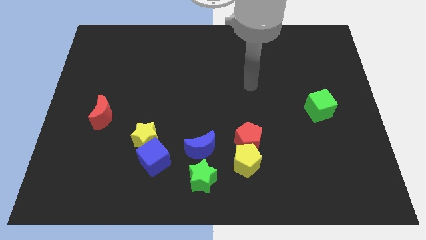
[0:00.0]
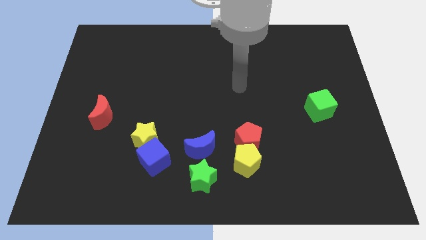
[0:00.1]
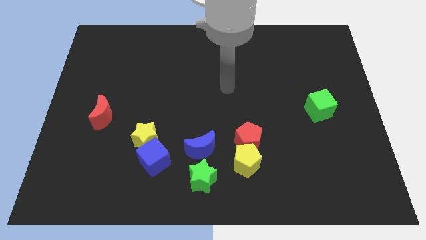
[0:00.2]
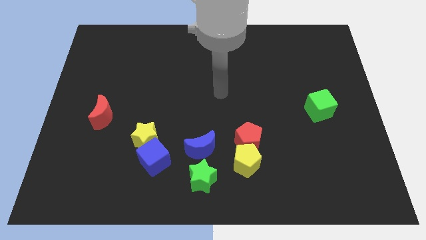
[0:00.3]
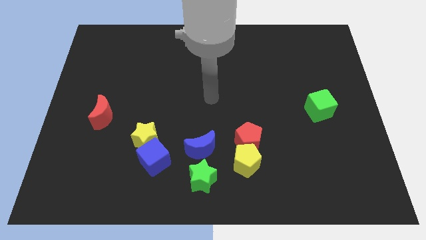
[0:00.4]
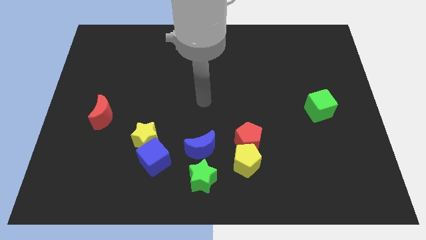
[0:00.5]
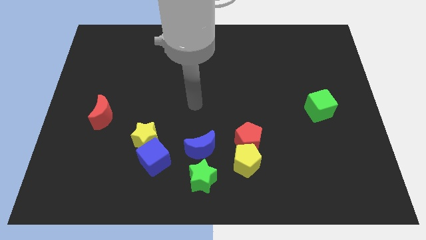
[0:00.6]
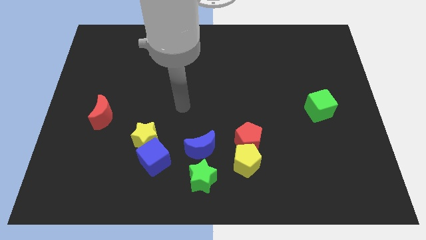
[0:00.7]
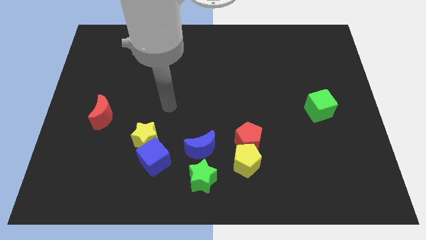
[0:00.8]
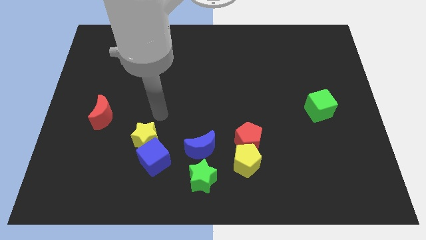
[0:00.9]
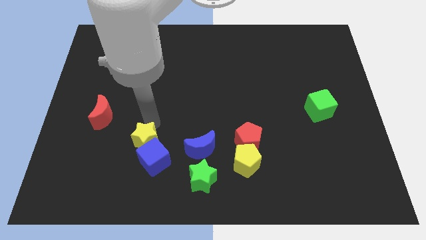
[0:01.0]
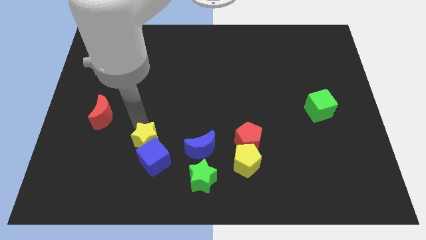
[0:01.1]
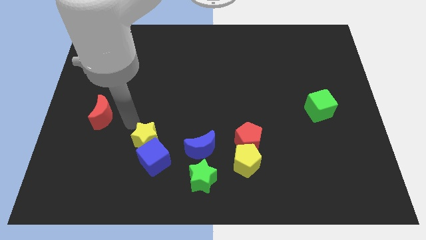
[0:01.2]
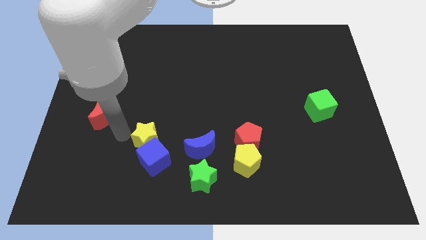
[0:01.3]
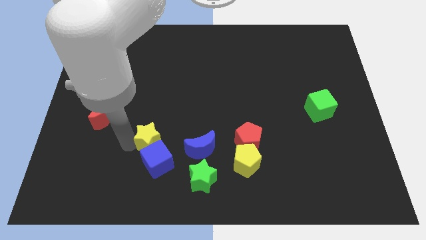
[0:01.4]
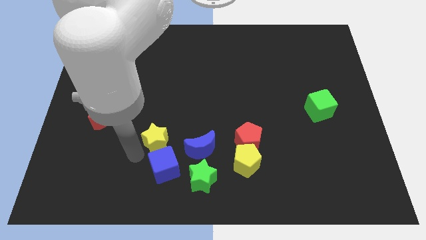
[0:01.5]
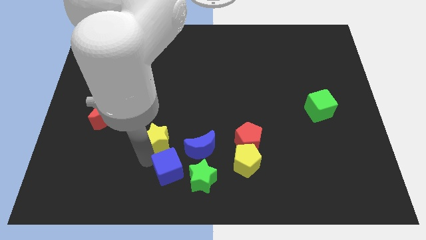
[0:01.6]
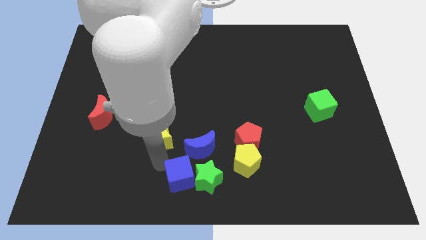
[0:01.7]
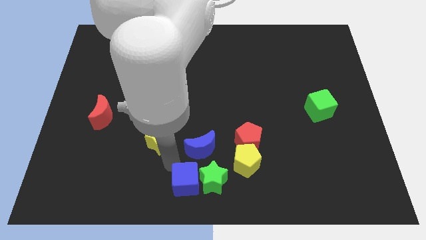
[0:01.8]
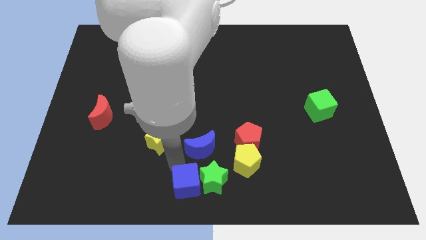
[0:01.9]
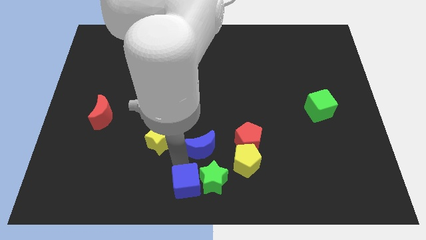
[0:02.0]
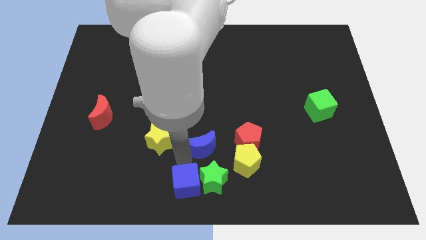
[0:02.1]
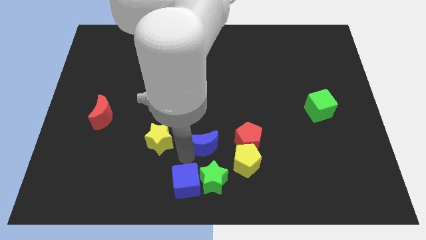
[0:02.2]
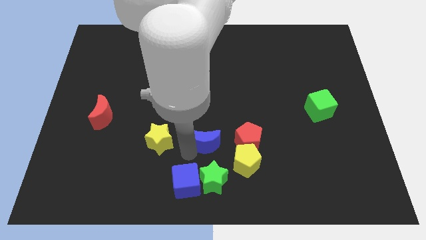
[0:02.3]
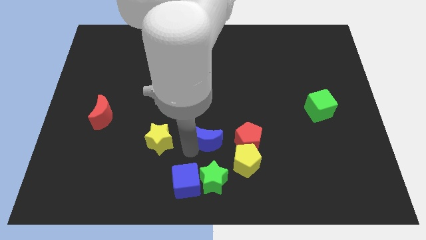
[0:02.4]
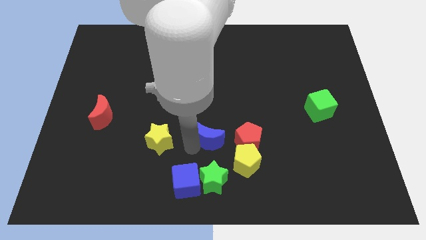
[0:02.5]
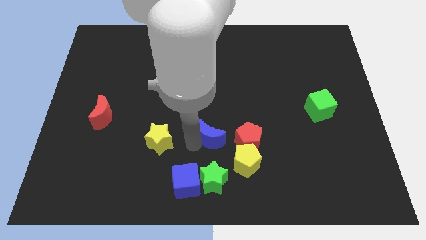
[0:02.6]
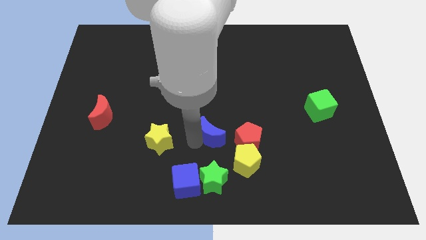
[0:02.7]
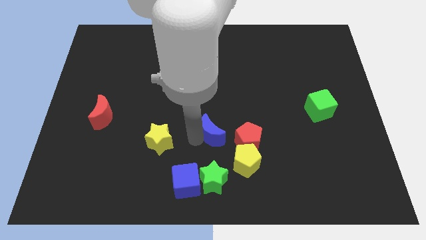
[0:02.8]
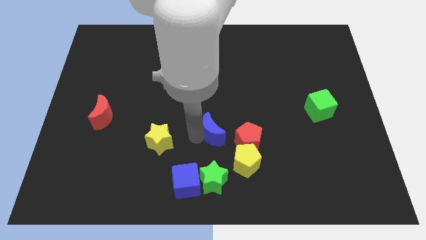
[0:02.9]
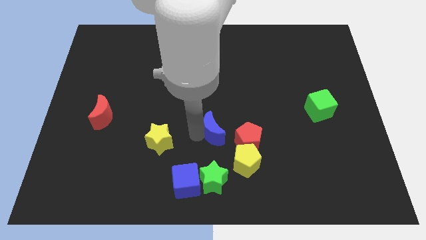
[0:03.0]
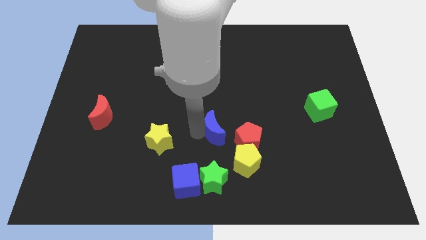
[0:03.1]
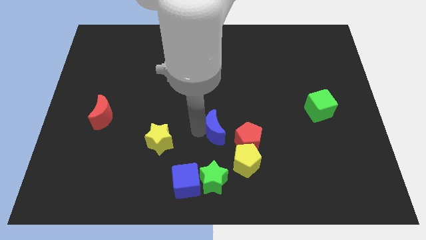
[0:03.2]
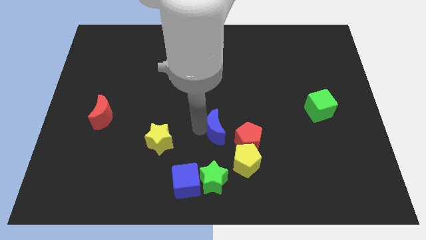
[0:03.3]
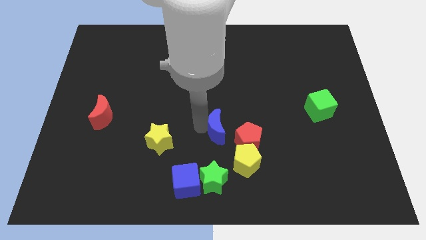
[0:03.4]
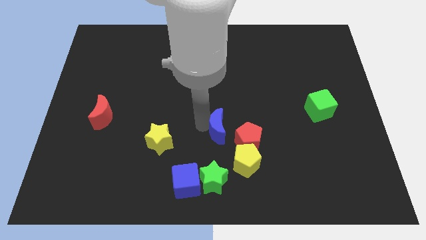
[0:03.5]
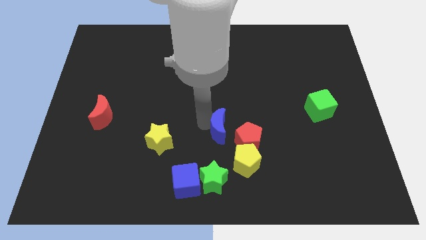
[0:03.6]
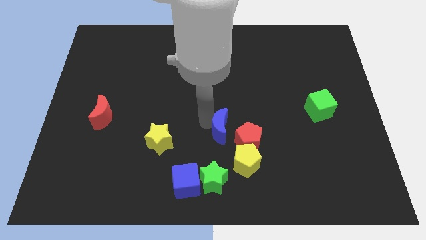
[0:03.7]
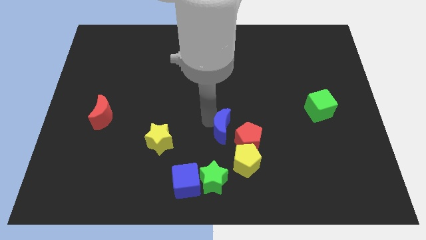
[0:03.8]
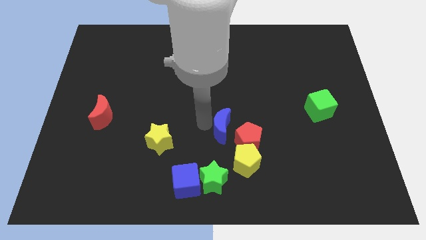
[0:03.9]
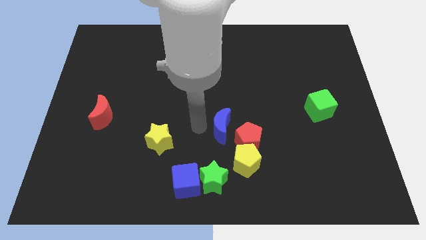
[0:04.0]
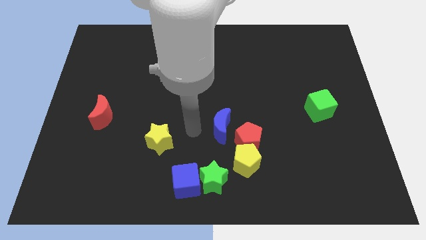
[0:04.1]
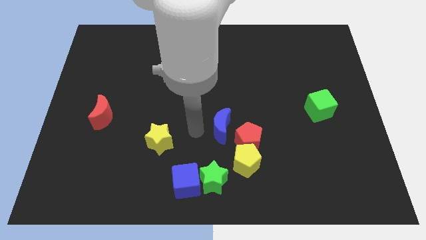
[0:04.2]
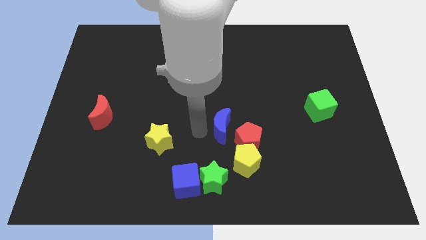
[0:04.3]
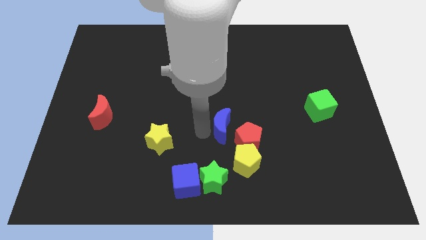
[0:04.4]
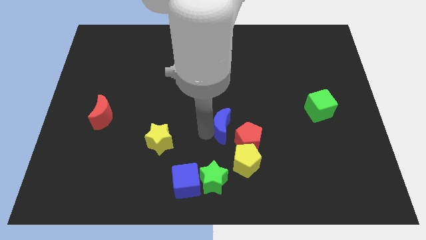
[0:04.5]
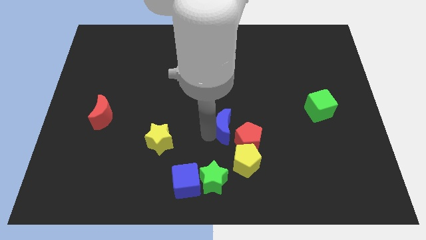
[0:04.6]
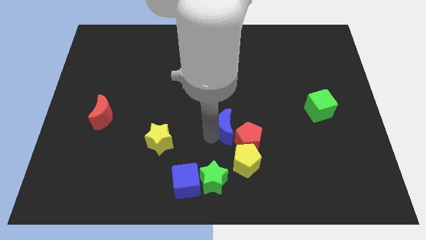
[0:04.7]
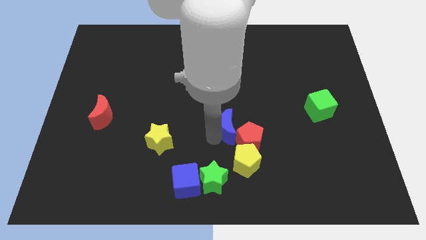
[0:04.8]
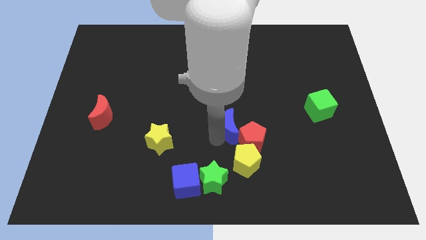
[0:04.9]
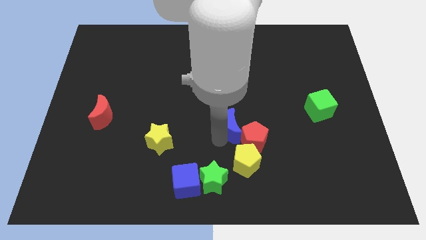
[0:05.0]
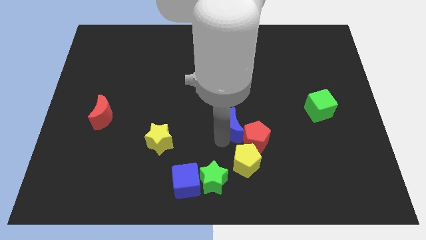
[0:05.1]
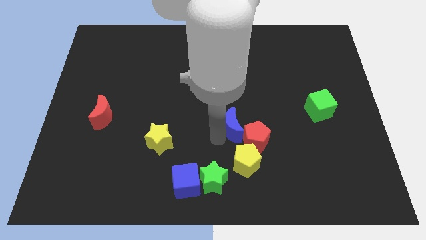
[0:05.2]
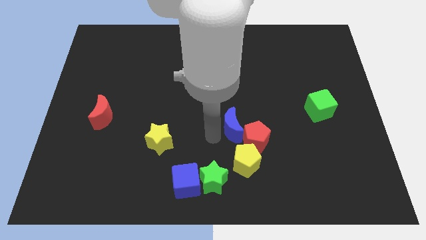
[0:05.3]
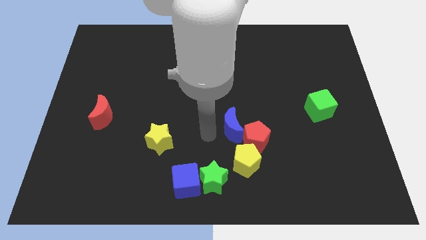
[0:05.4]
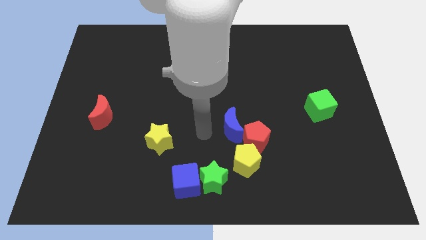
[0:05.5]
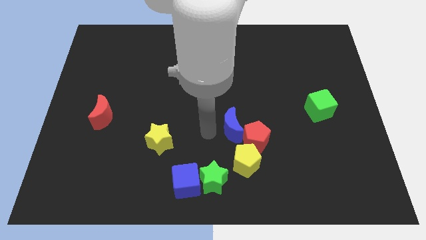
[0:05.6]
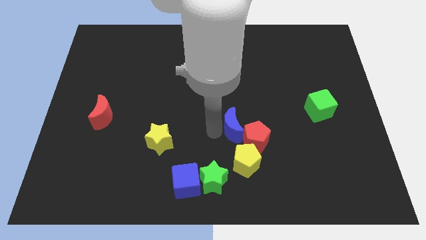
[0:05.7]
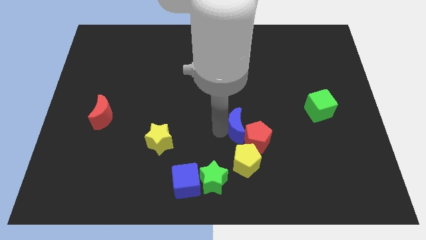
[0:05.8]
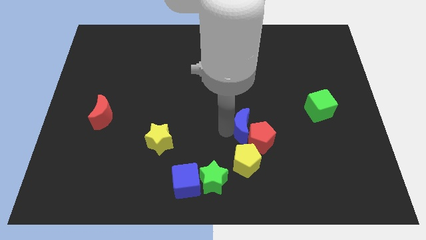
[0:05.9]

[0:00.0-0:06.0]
slide the blue moon right somewhat

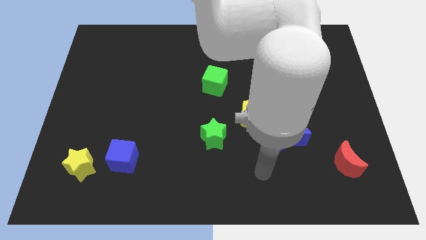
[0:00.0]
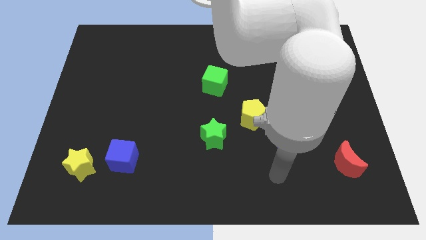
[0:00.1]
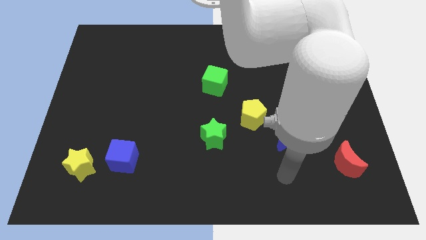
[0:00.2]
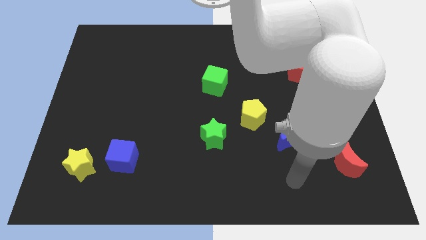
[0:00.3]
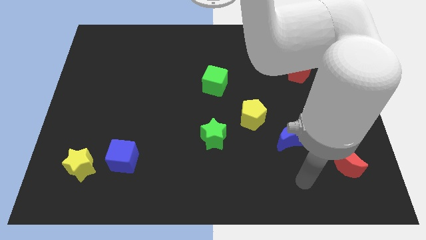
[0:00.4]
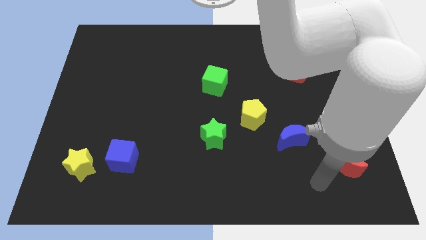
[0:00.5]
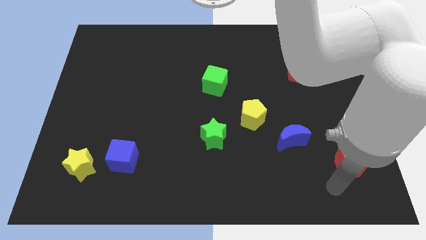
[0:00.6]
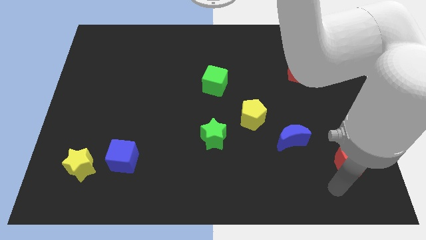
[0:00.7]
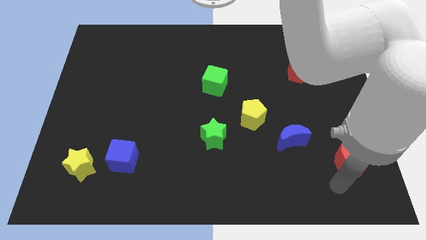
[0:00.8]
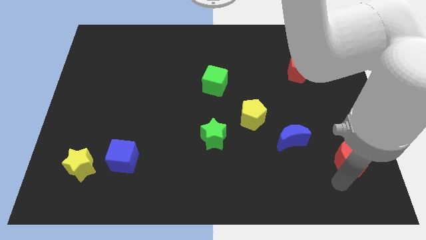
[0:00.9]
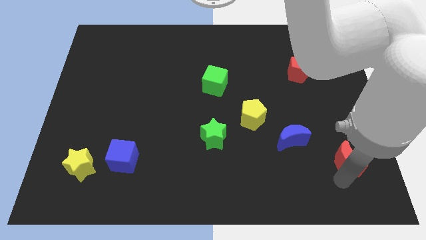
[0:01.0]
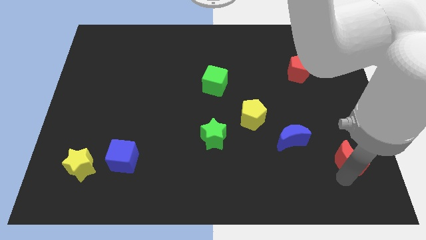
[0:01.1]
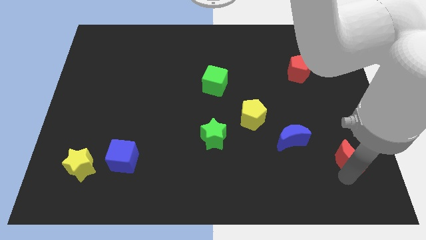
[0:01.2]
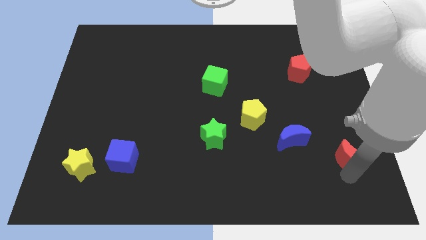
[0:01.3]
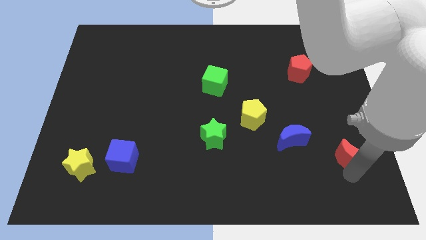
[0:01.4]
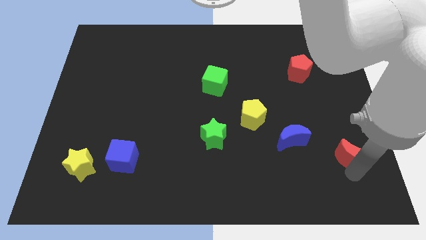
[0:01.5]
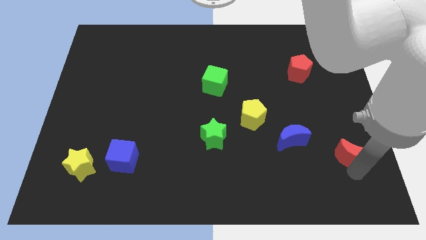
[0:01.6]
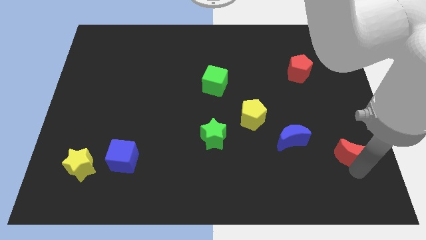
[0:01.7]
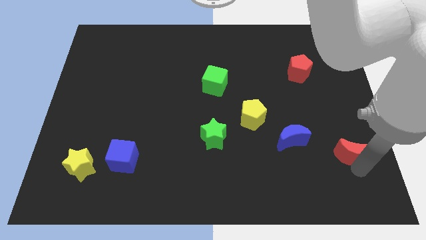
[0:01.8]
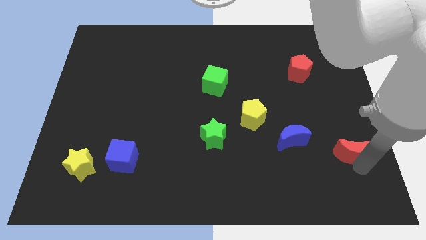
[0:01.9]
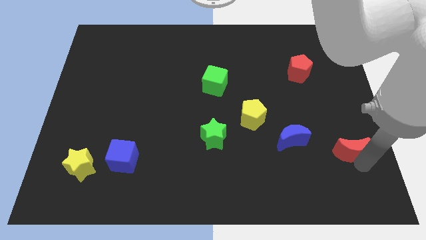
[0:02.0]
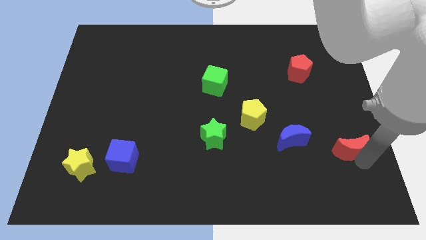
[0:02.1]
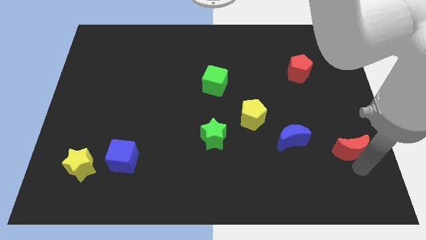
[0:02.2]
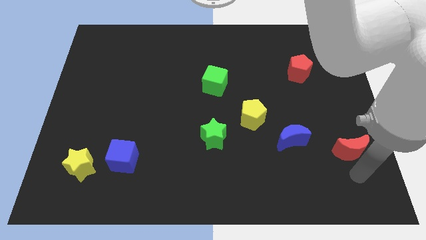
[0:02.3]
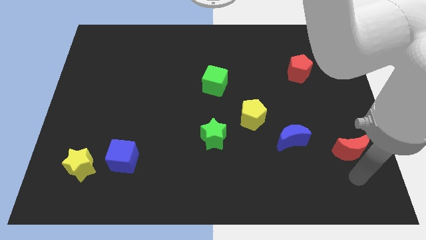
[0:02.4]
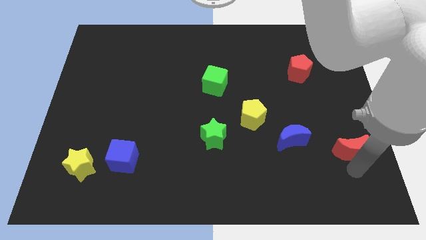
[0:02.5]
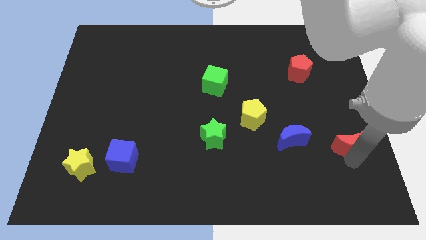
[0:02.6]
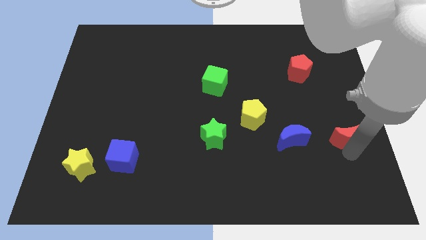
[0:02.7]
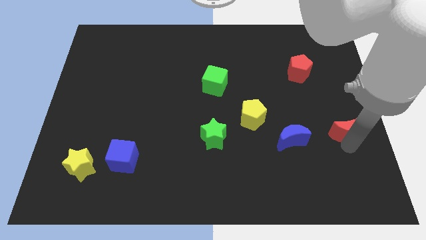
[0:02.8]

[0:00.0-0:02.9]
push the red moon upwards somewhat
